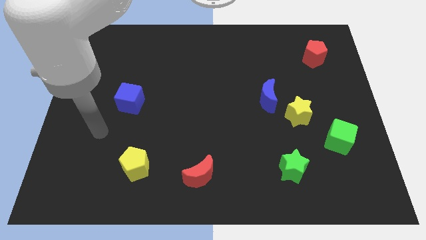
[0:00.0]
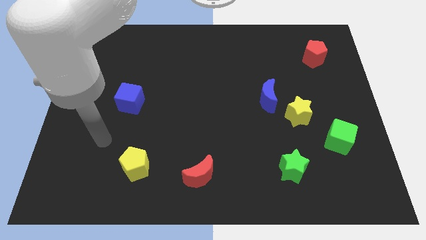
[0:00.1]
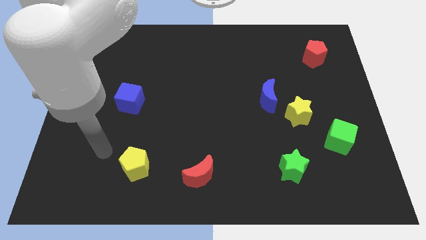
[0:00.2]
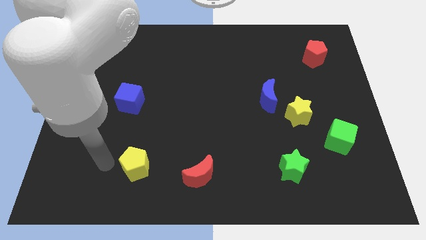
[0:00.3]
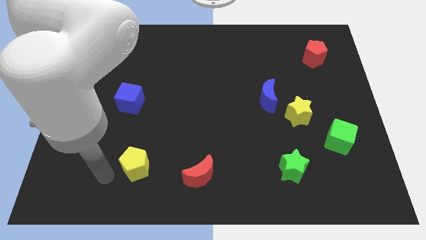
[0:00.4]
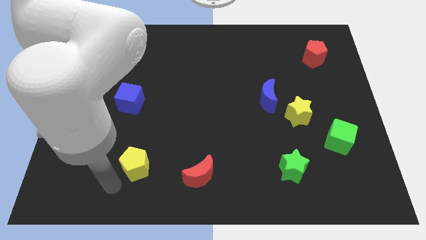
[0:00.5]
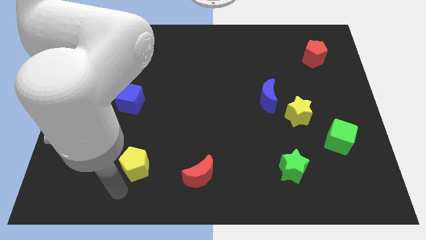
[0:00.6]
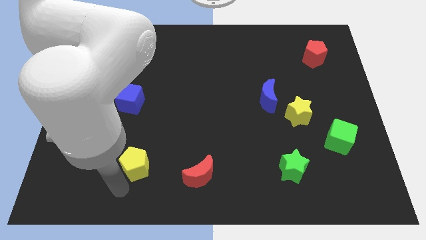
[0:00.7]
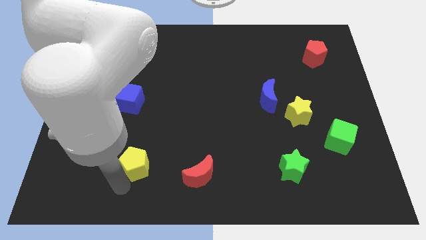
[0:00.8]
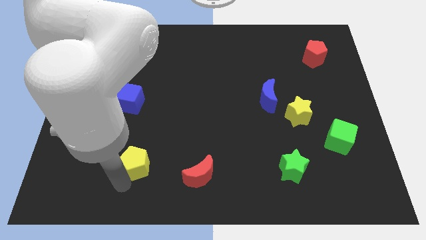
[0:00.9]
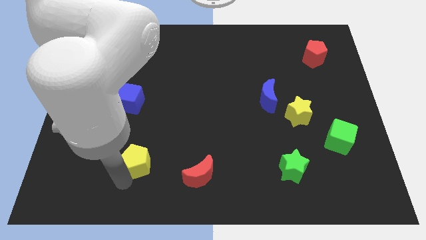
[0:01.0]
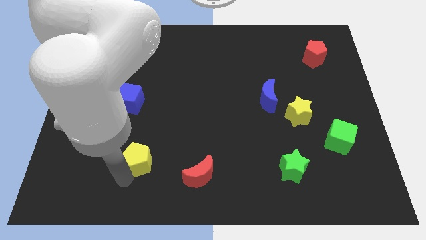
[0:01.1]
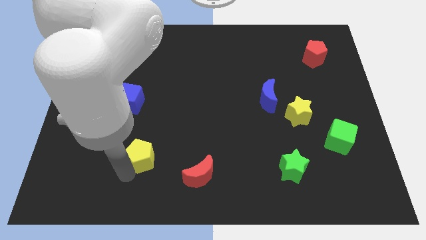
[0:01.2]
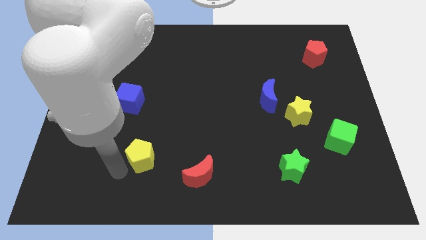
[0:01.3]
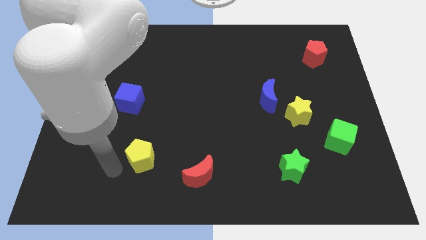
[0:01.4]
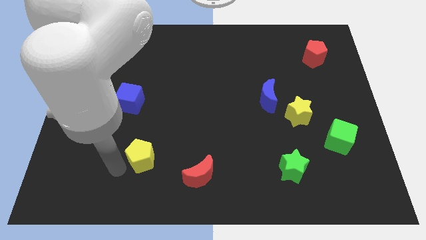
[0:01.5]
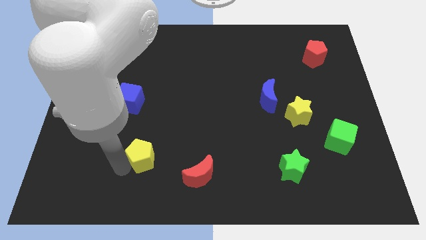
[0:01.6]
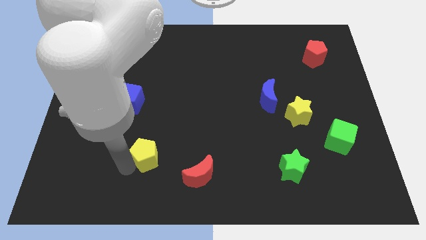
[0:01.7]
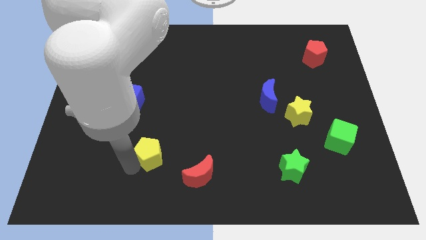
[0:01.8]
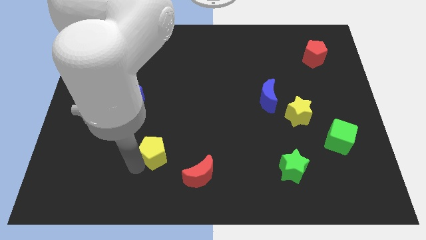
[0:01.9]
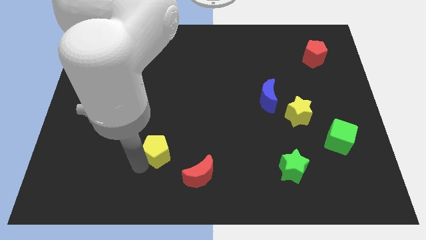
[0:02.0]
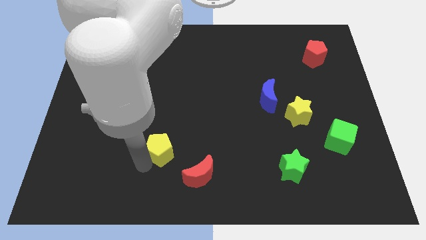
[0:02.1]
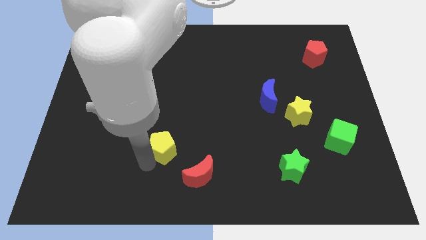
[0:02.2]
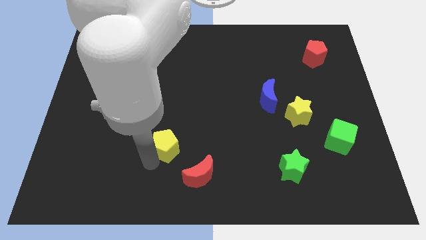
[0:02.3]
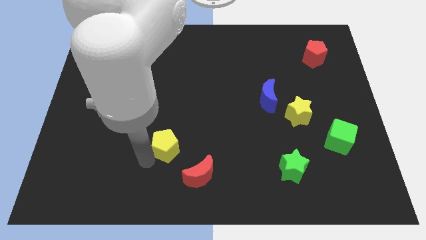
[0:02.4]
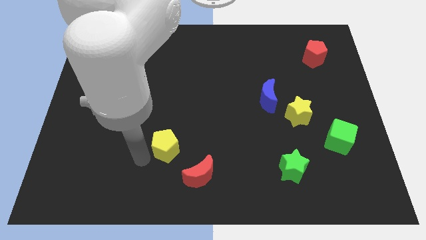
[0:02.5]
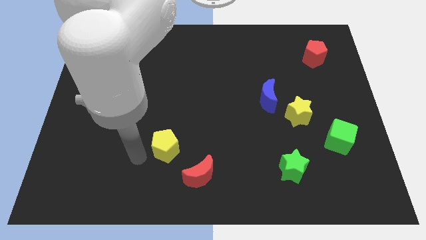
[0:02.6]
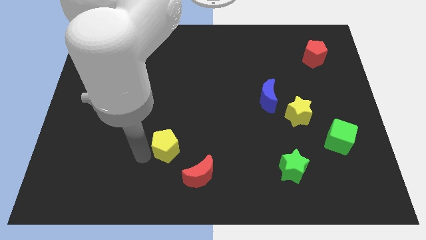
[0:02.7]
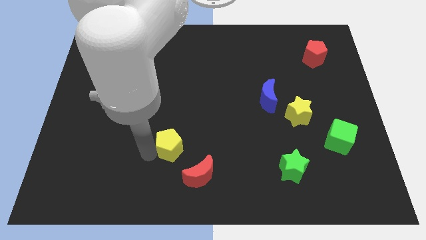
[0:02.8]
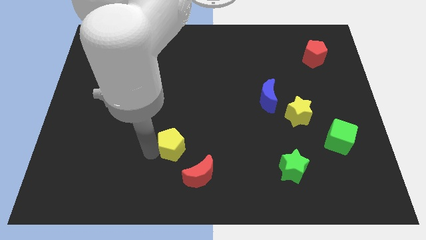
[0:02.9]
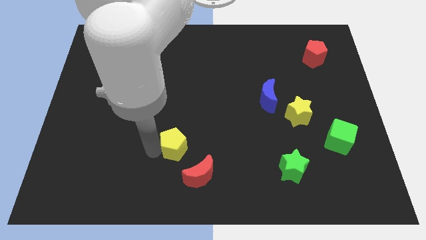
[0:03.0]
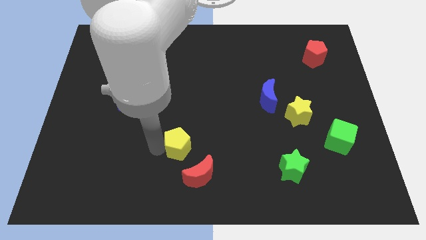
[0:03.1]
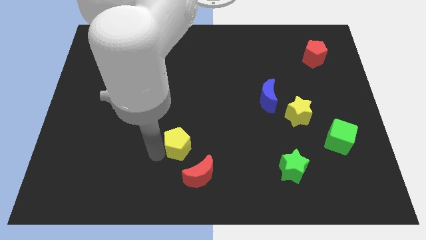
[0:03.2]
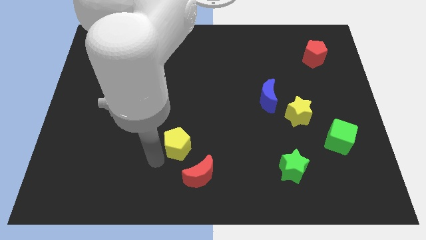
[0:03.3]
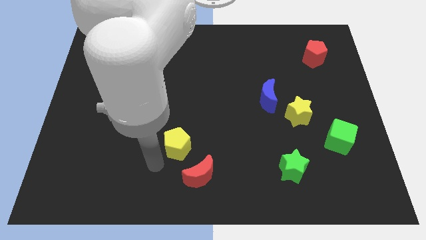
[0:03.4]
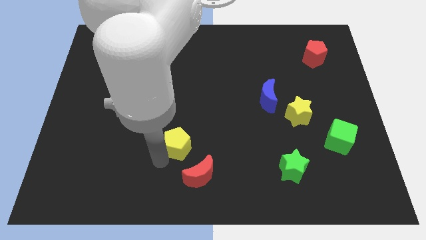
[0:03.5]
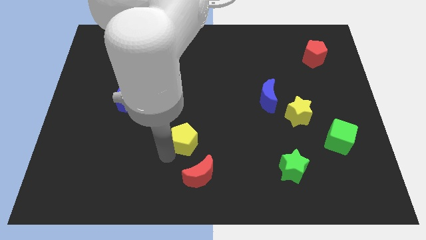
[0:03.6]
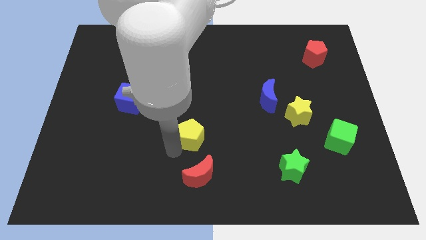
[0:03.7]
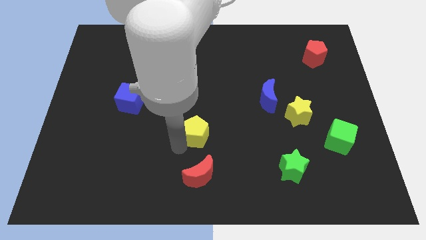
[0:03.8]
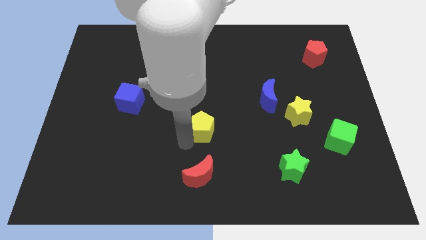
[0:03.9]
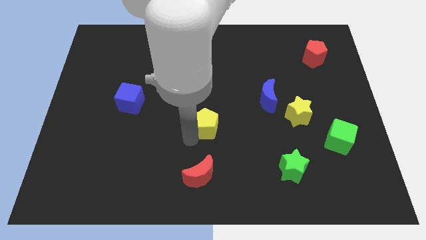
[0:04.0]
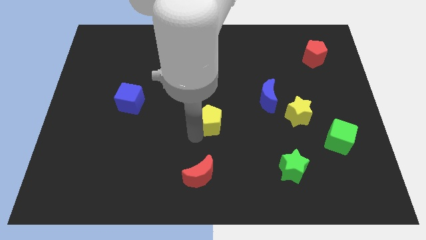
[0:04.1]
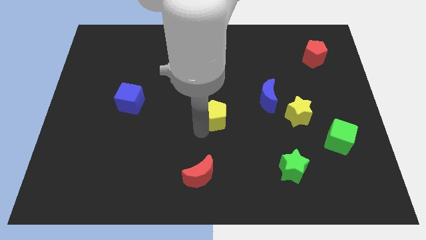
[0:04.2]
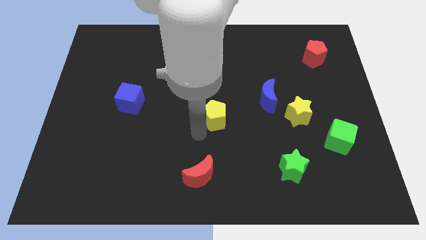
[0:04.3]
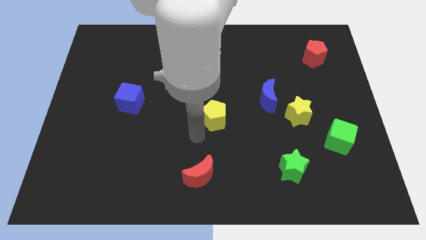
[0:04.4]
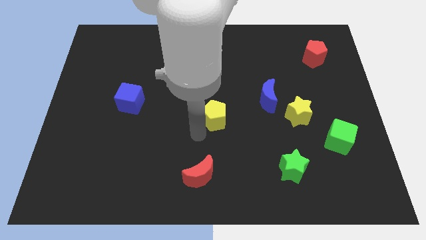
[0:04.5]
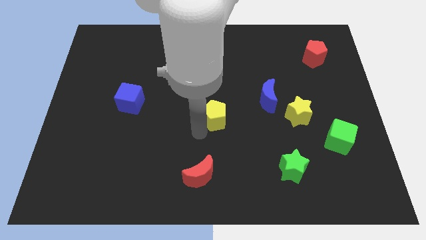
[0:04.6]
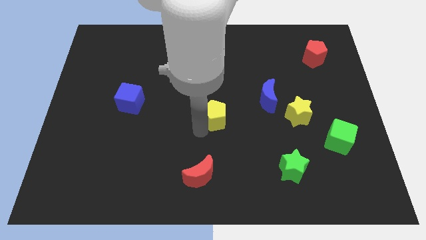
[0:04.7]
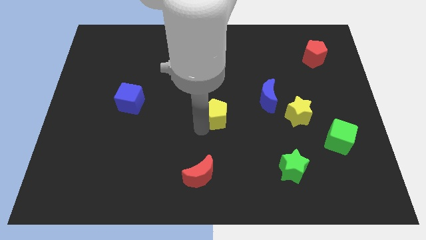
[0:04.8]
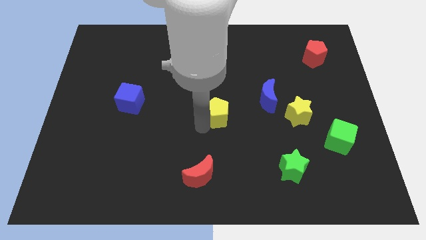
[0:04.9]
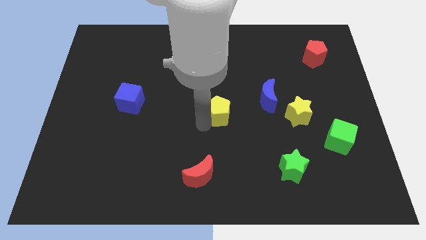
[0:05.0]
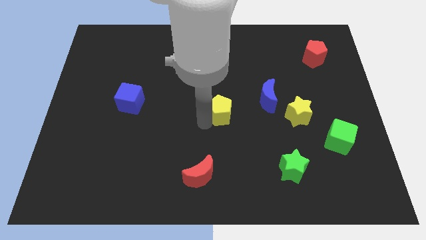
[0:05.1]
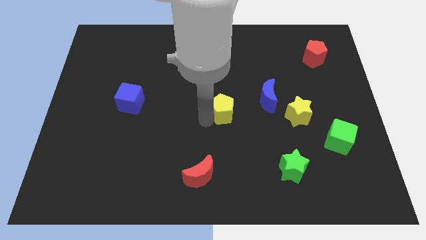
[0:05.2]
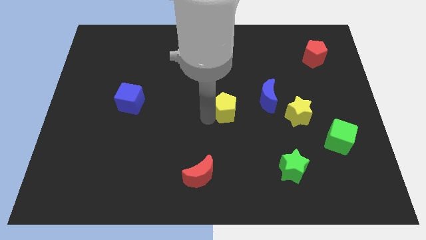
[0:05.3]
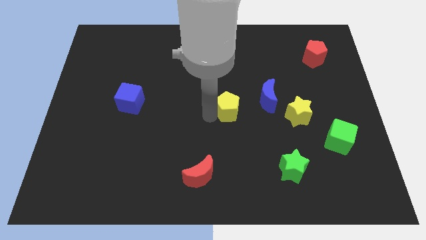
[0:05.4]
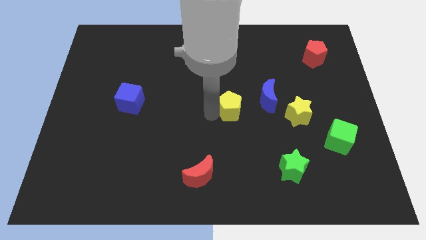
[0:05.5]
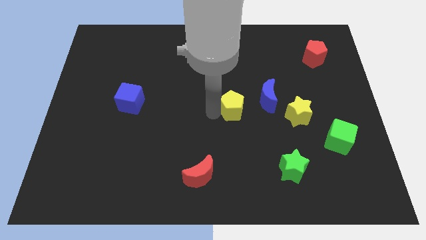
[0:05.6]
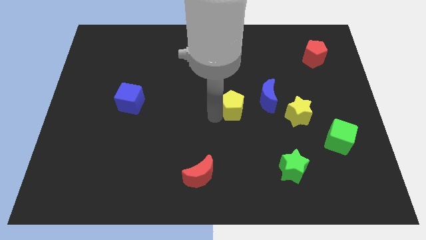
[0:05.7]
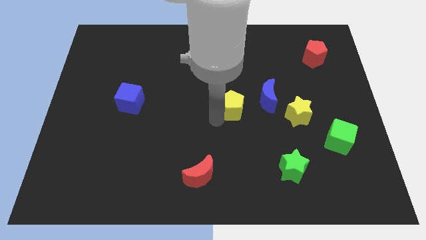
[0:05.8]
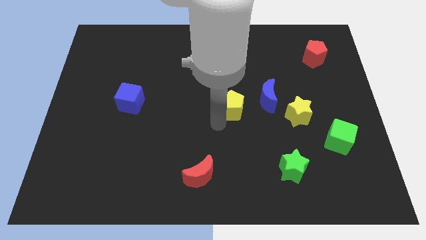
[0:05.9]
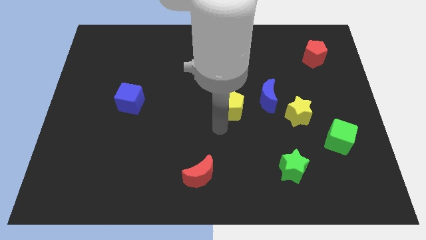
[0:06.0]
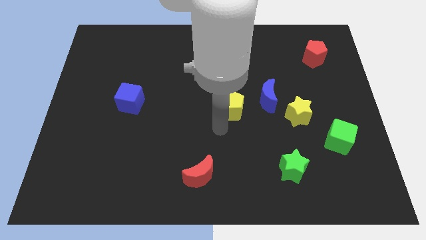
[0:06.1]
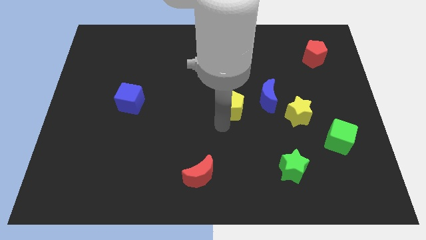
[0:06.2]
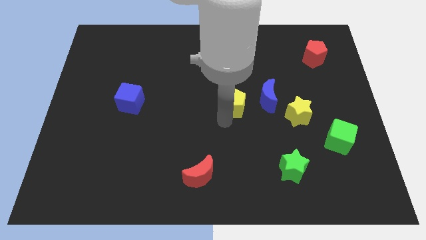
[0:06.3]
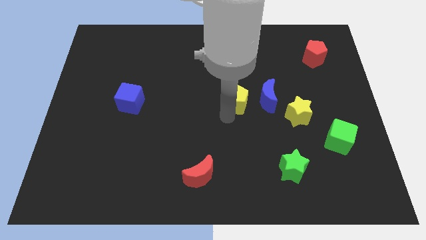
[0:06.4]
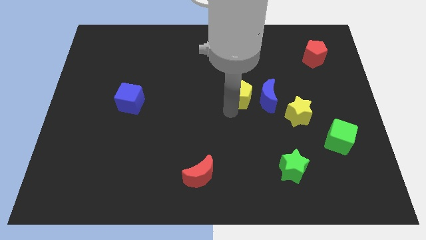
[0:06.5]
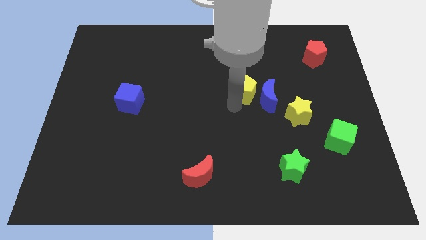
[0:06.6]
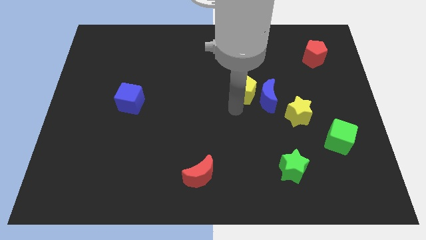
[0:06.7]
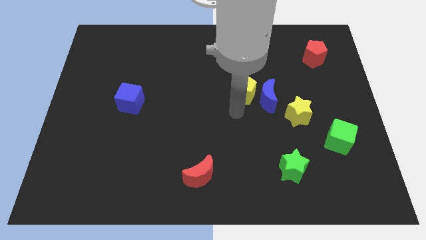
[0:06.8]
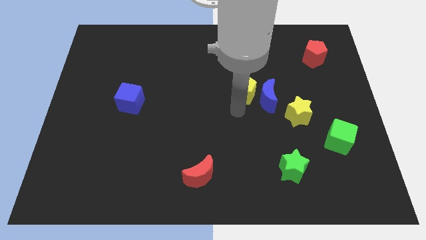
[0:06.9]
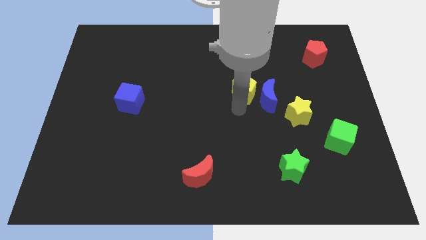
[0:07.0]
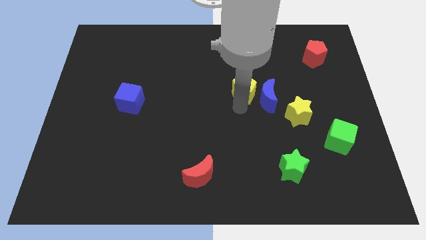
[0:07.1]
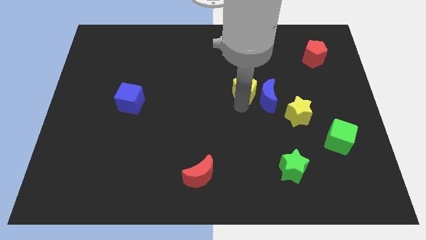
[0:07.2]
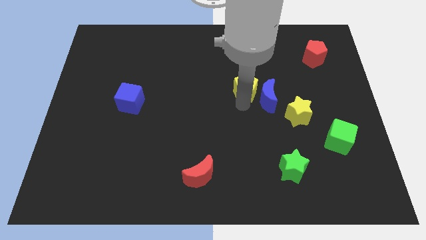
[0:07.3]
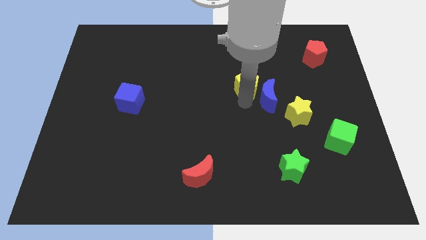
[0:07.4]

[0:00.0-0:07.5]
slide the yellow pentagon to the top side of the blue moon

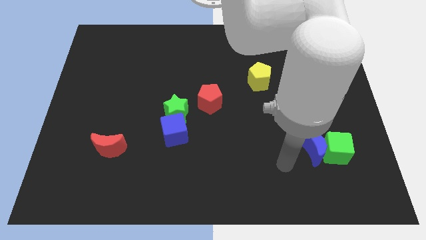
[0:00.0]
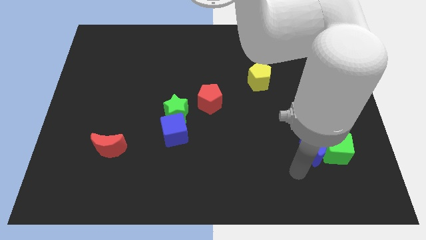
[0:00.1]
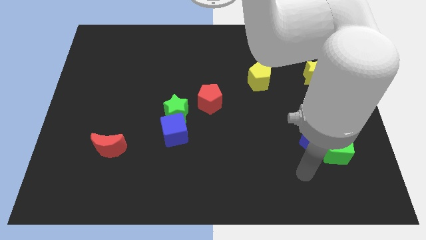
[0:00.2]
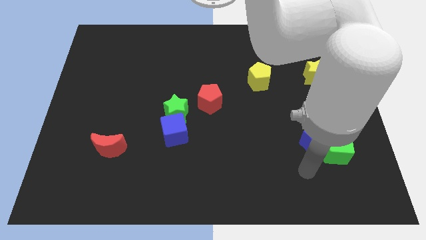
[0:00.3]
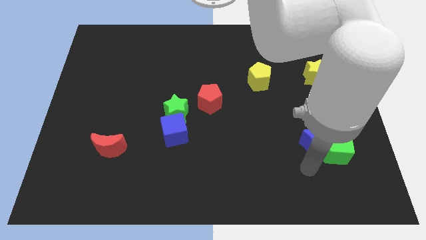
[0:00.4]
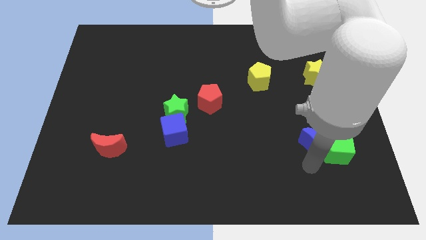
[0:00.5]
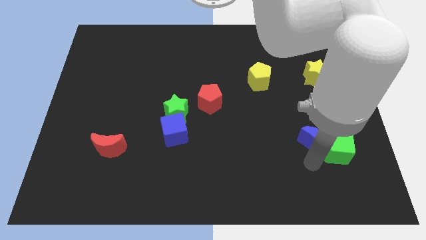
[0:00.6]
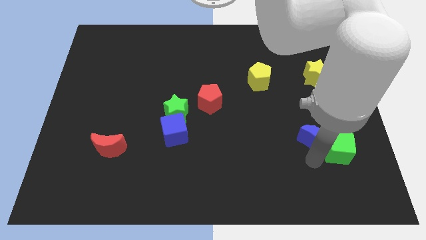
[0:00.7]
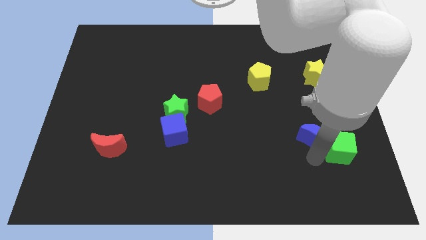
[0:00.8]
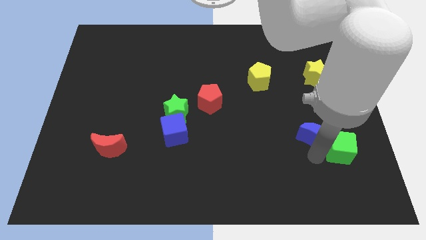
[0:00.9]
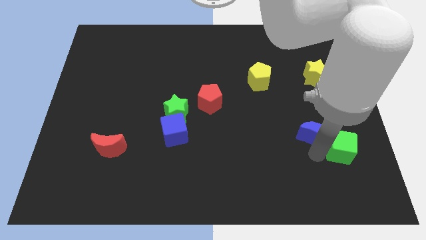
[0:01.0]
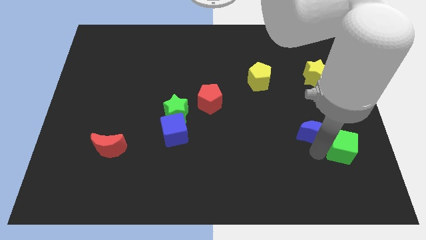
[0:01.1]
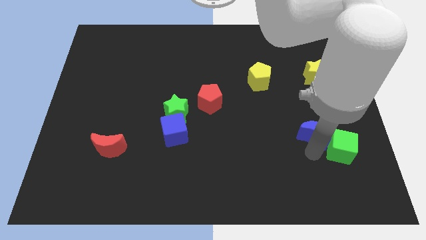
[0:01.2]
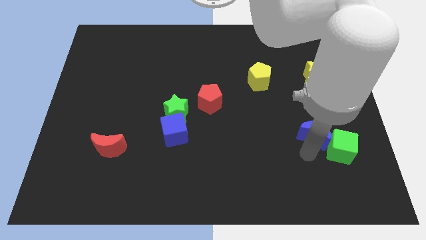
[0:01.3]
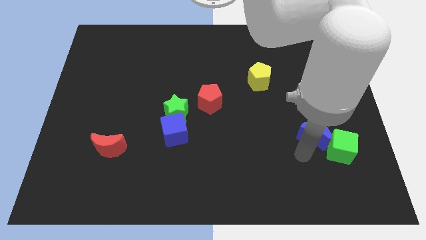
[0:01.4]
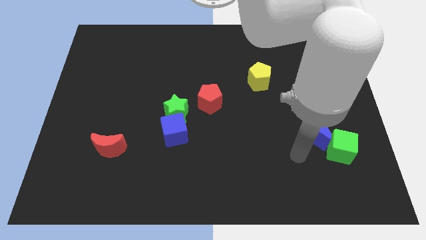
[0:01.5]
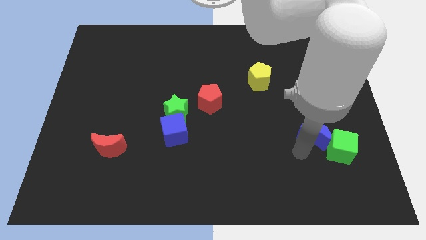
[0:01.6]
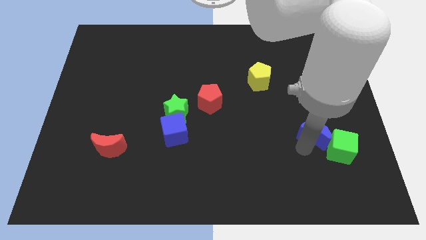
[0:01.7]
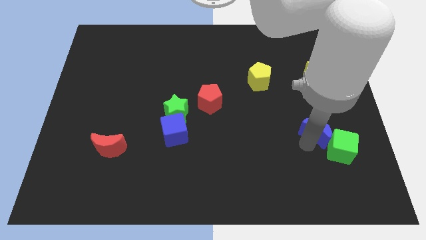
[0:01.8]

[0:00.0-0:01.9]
move the blue moon above the green cube
